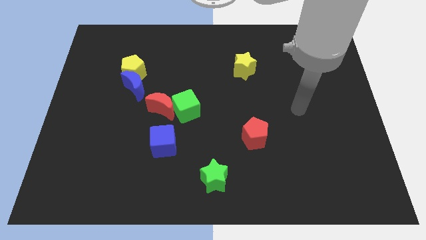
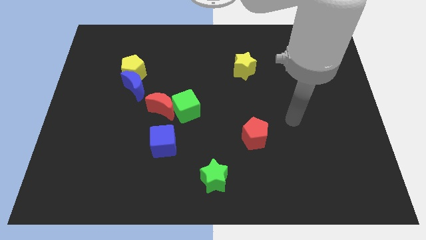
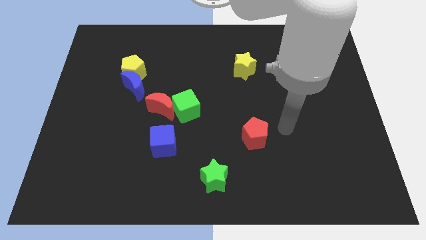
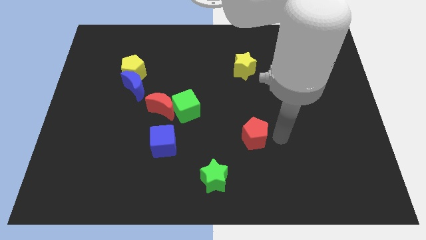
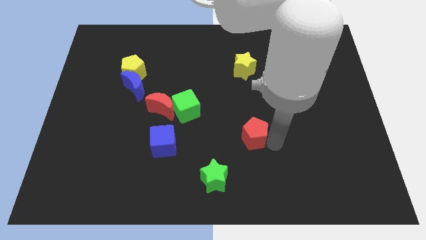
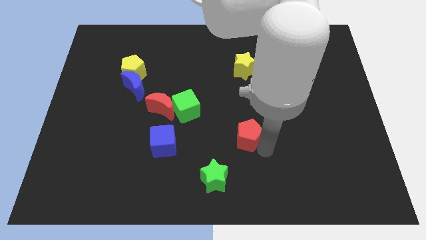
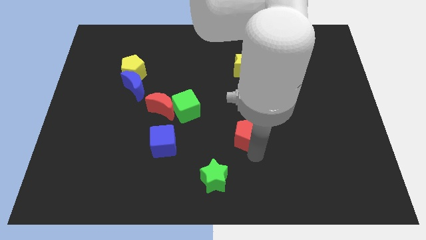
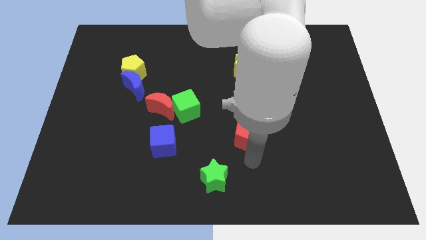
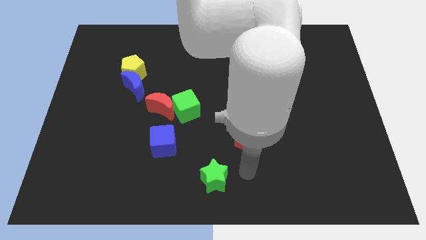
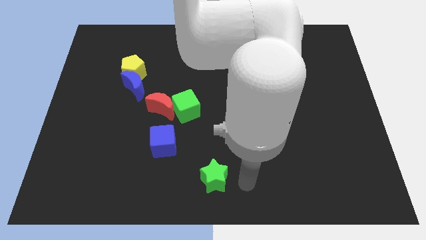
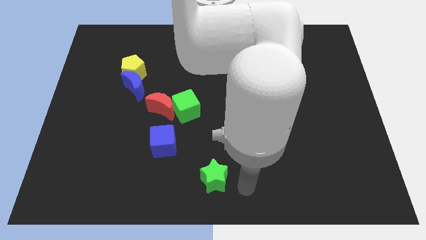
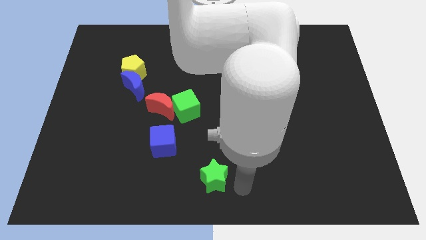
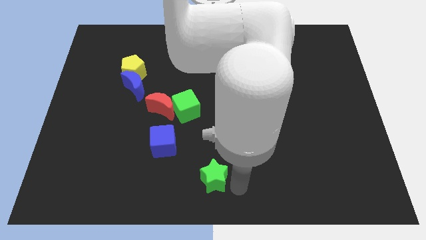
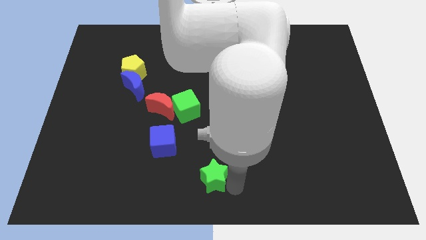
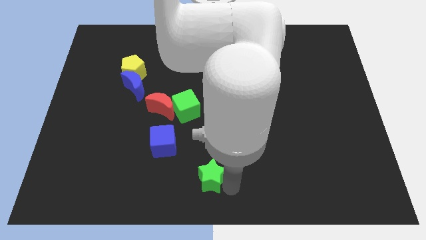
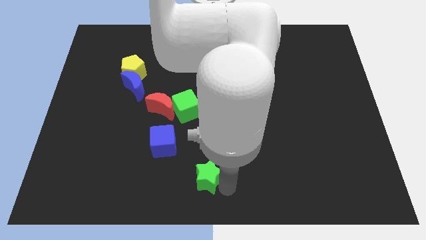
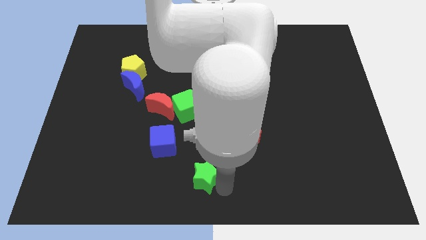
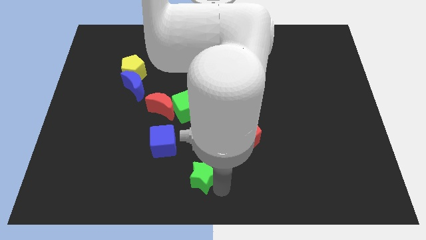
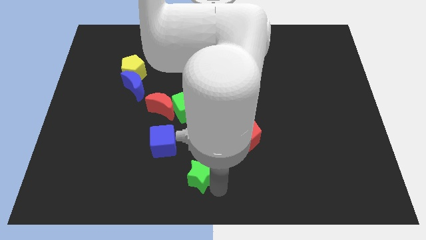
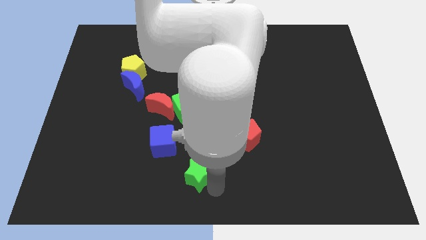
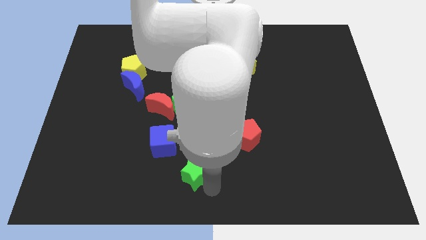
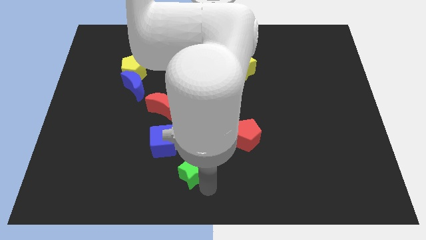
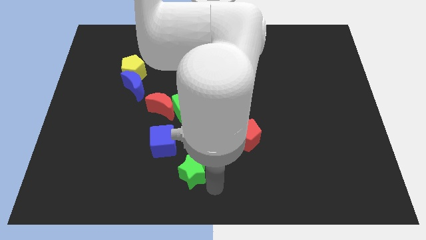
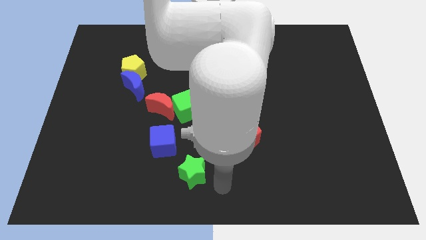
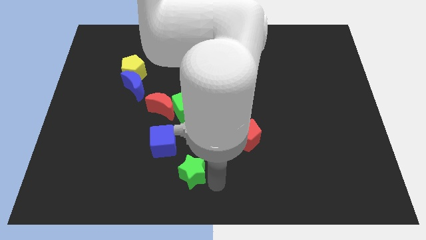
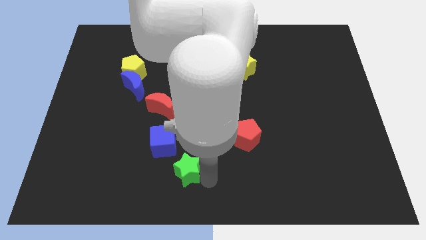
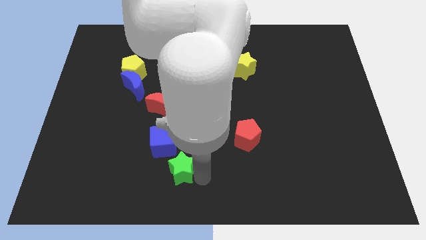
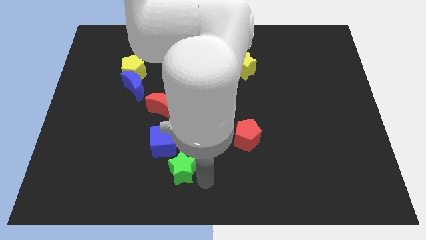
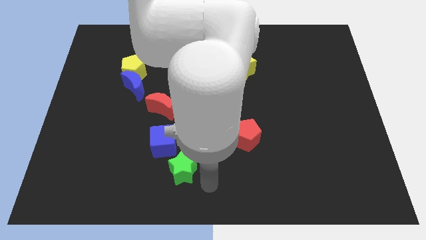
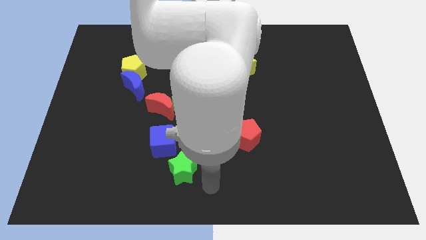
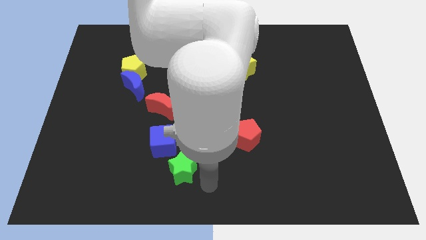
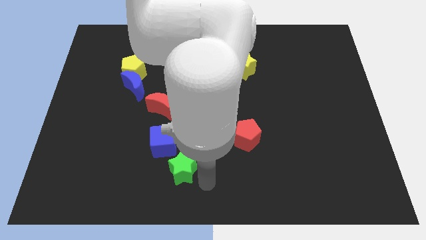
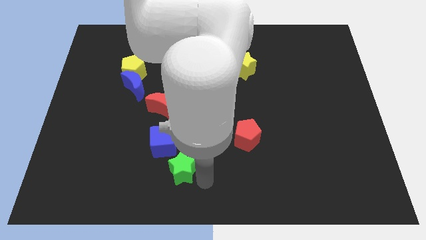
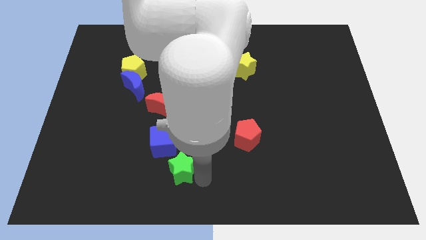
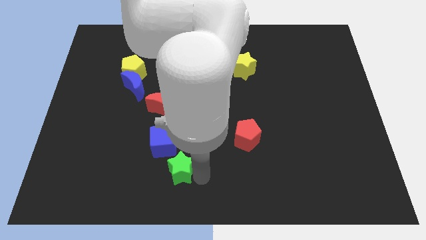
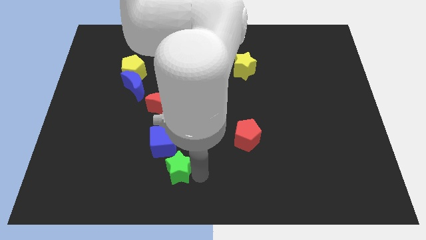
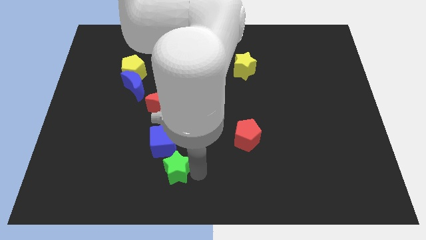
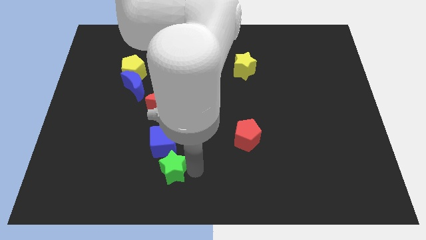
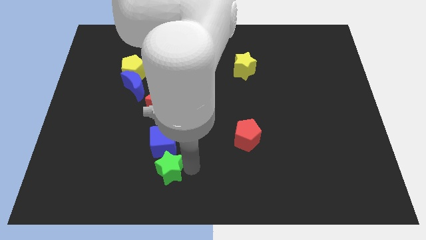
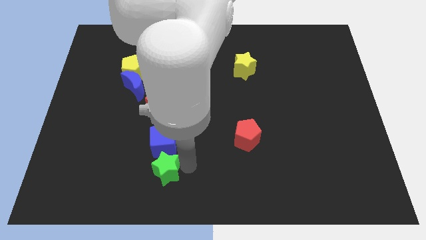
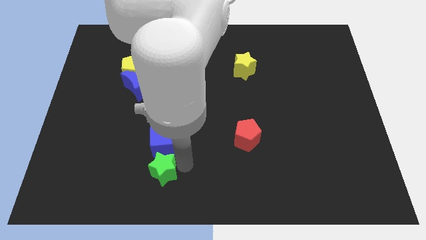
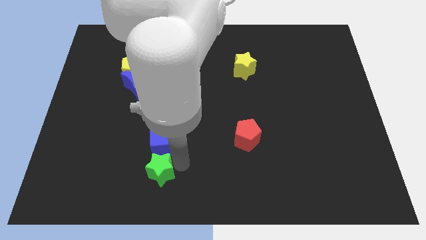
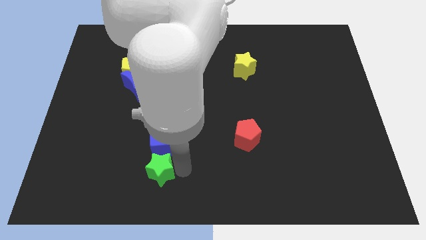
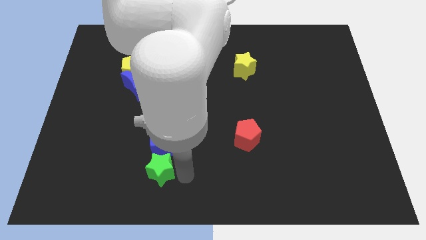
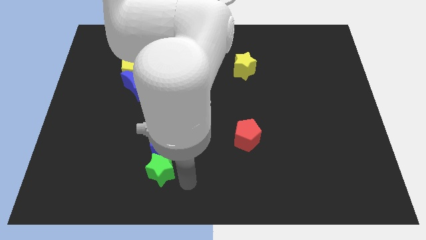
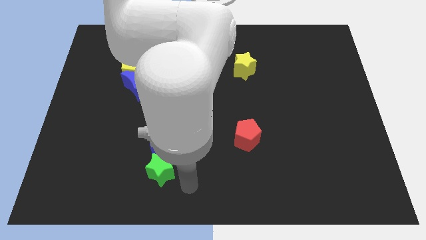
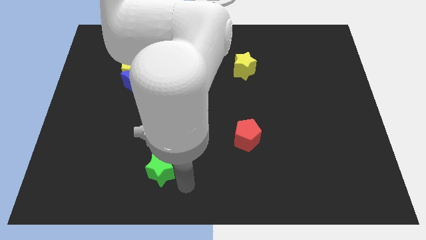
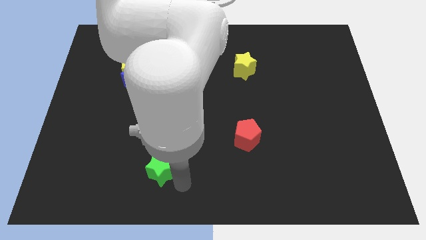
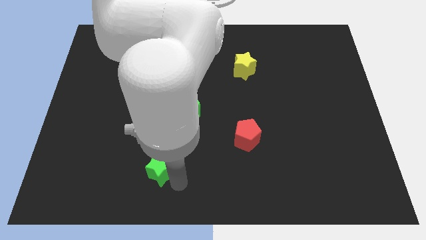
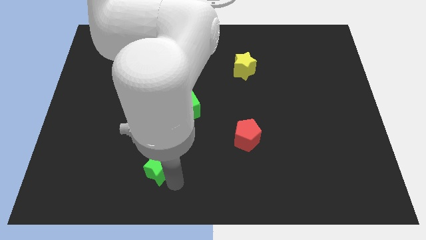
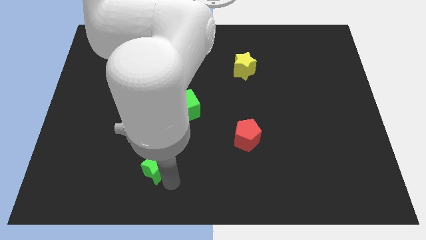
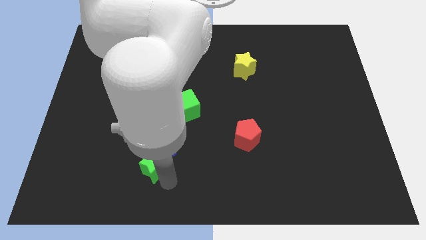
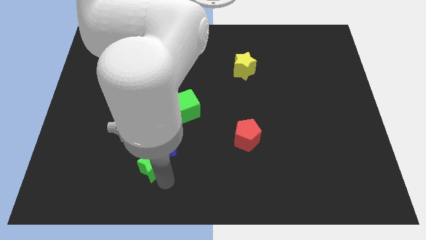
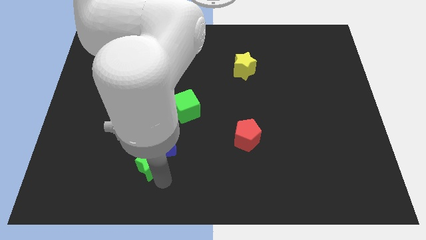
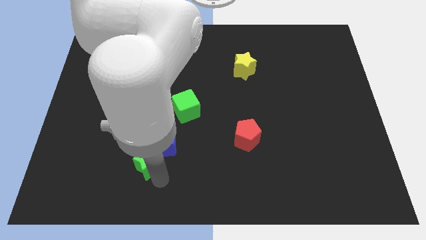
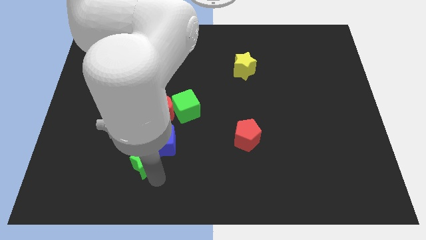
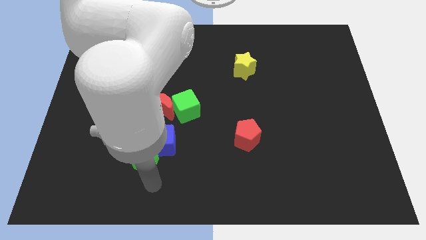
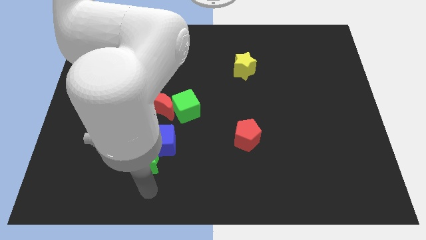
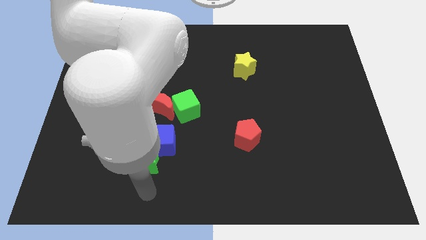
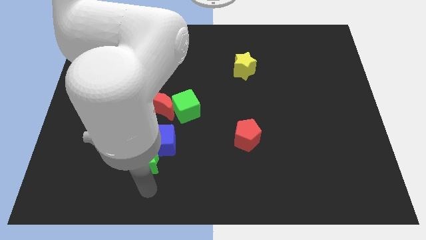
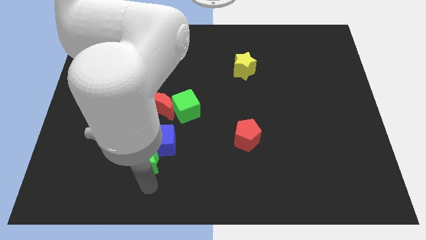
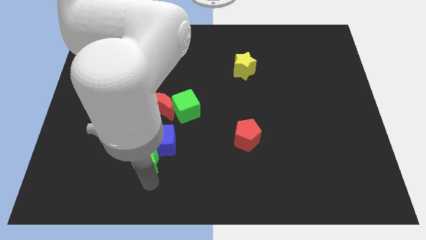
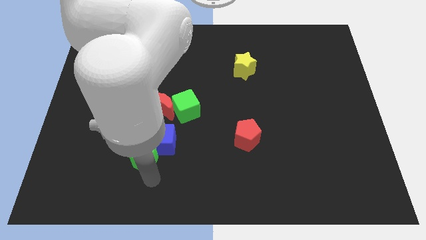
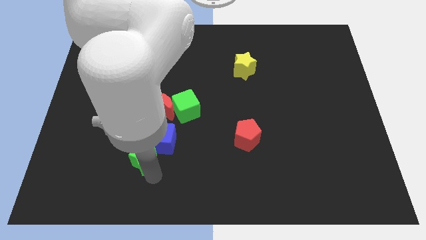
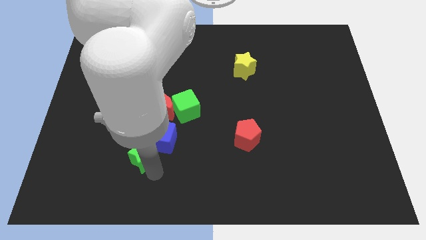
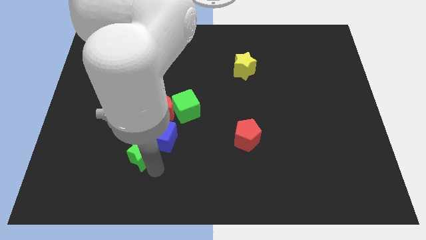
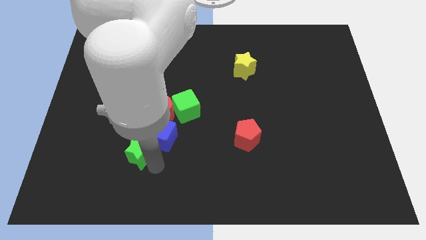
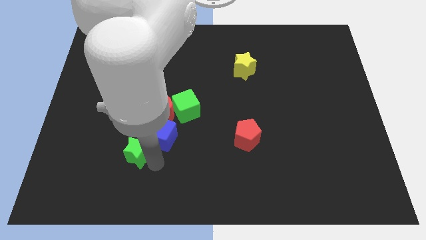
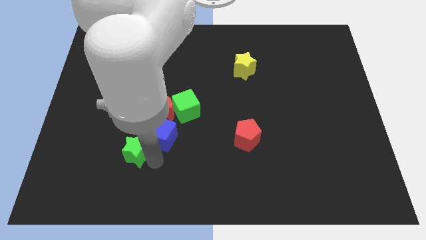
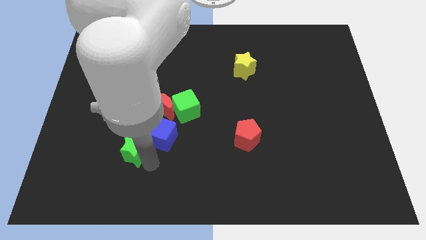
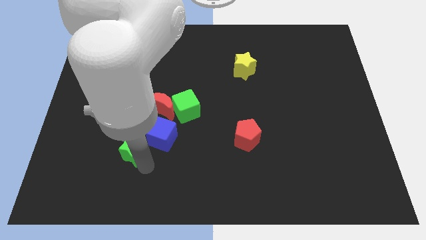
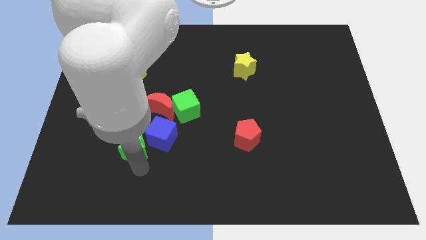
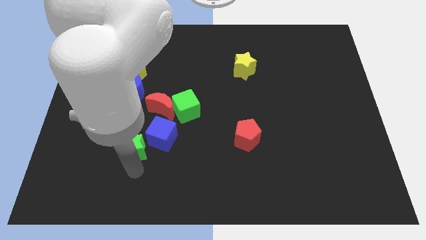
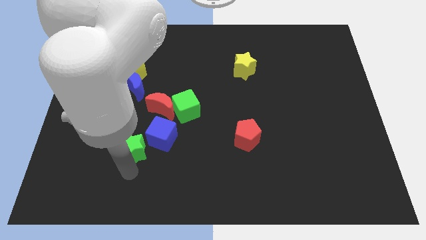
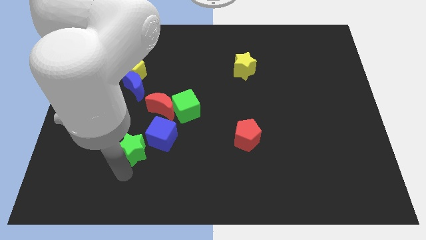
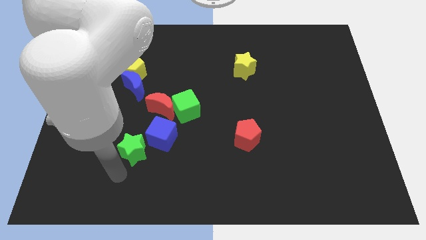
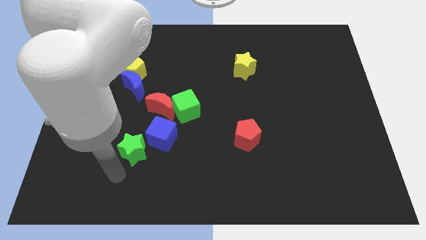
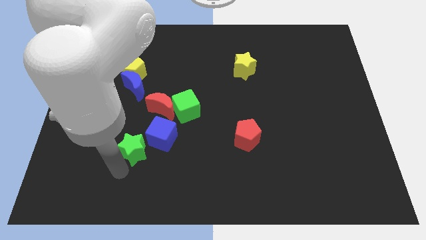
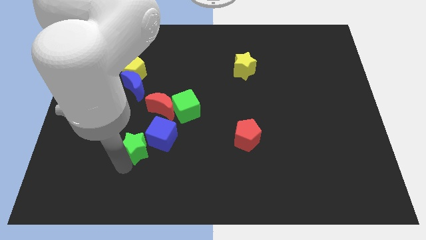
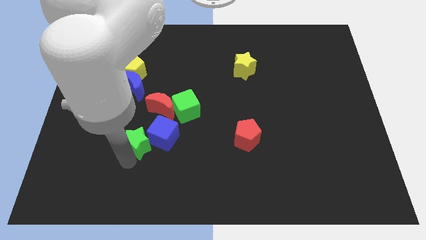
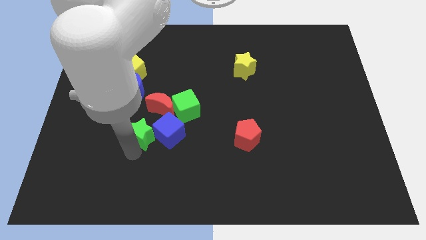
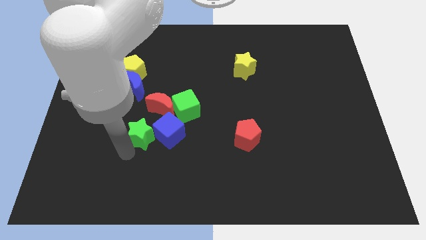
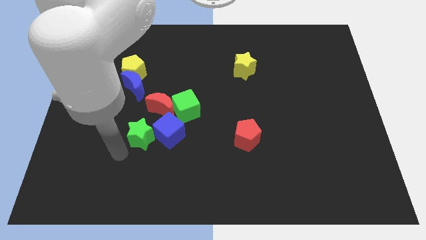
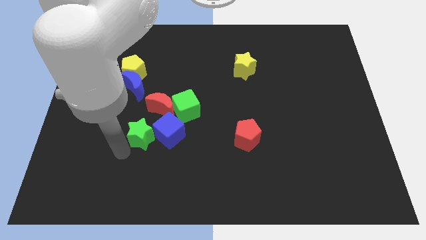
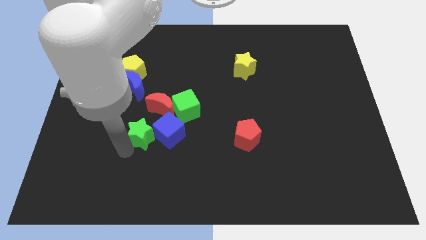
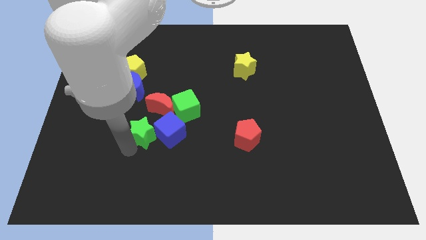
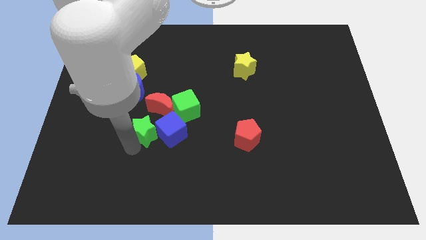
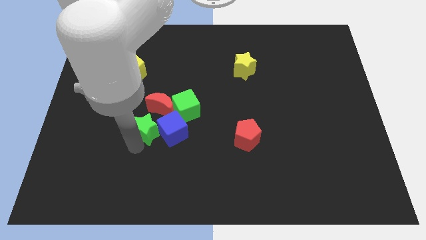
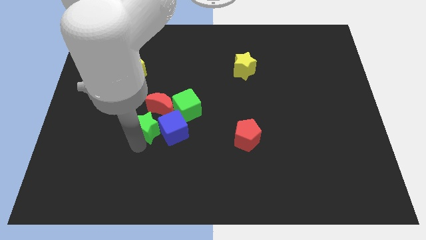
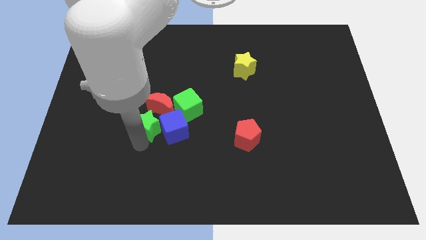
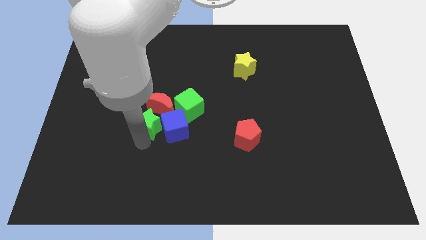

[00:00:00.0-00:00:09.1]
push the green star next to the red moon
